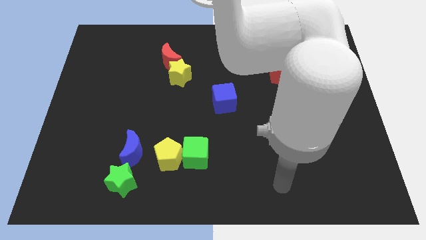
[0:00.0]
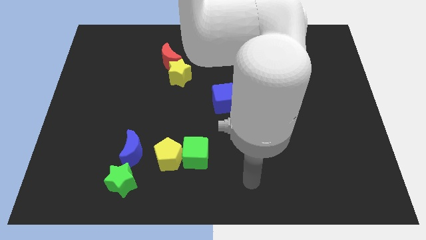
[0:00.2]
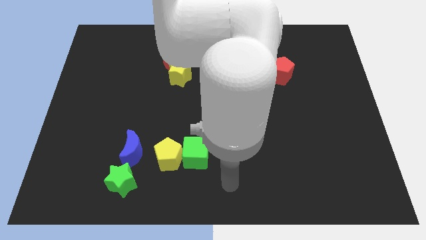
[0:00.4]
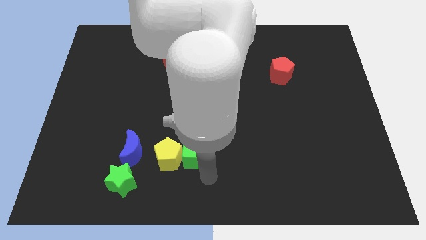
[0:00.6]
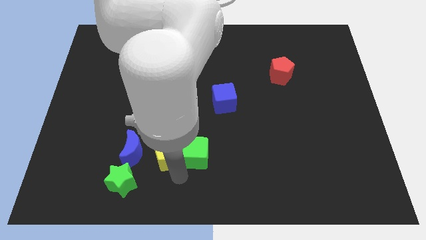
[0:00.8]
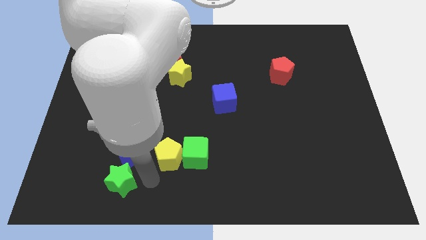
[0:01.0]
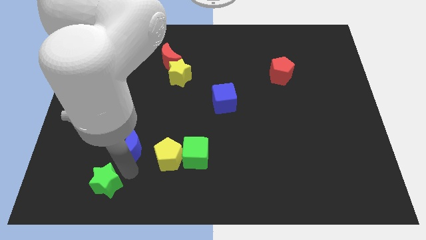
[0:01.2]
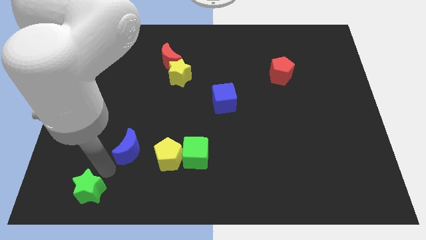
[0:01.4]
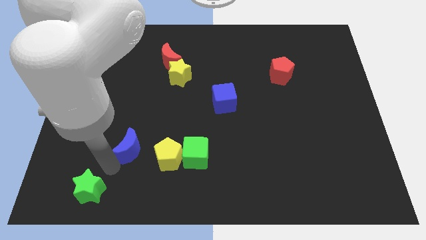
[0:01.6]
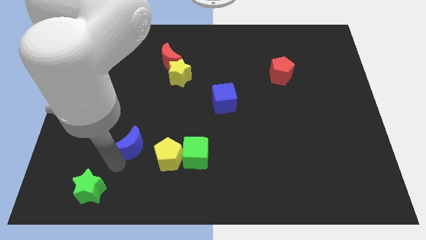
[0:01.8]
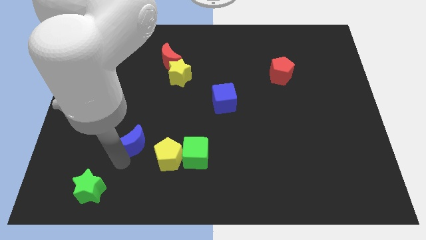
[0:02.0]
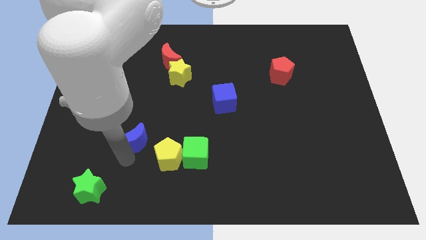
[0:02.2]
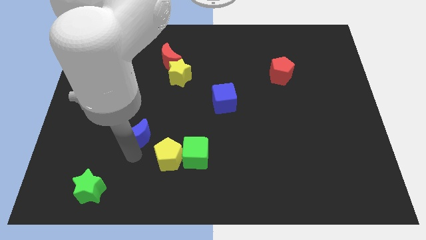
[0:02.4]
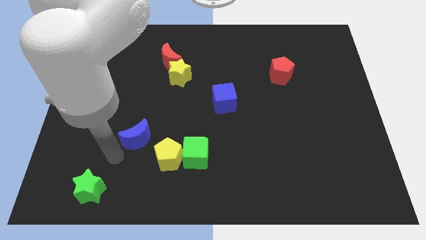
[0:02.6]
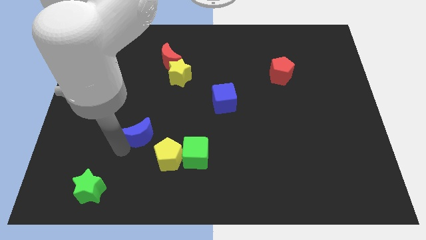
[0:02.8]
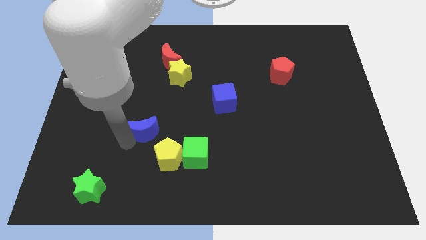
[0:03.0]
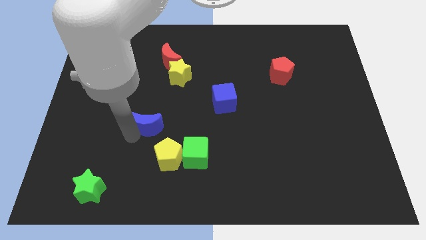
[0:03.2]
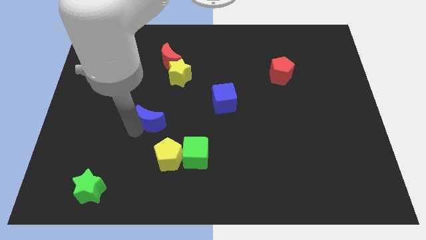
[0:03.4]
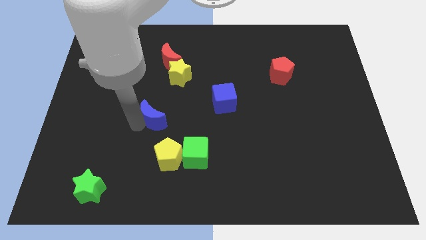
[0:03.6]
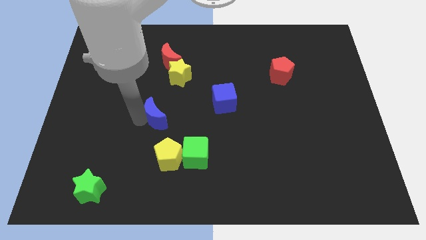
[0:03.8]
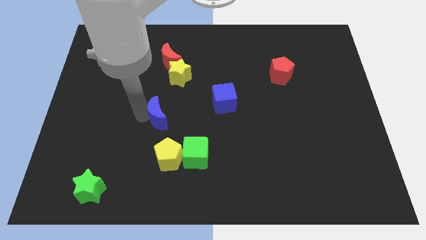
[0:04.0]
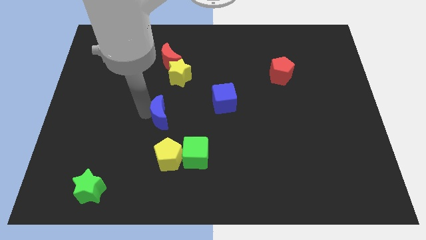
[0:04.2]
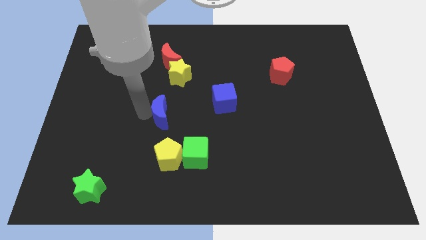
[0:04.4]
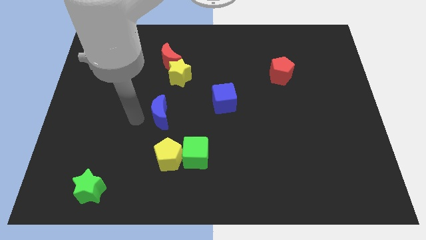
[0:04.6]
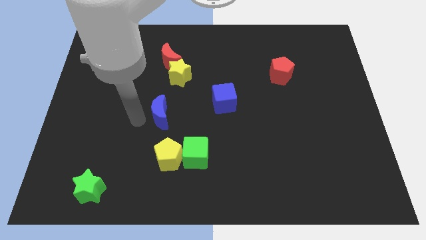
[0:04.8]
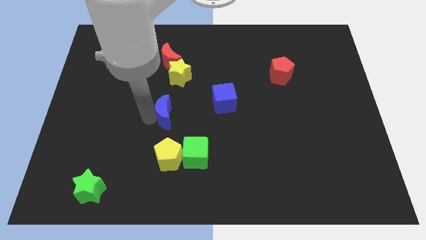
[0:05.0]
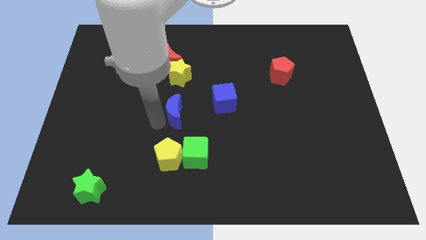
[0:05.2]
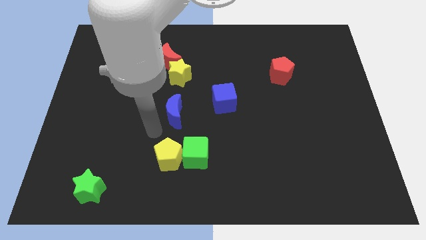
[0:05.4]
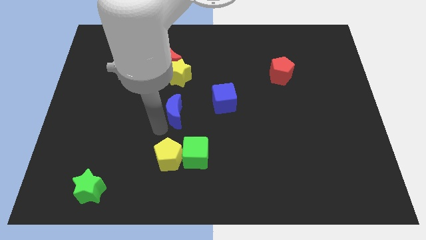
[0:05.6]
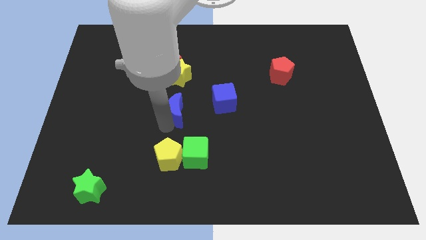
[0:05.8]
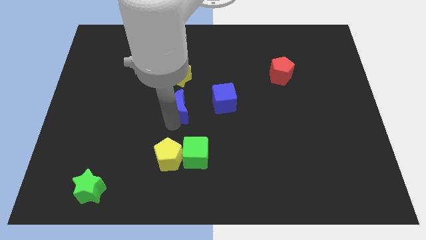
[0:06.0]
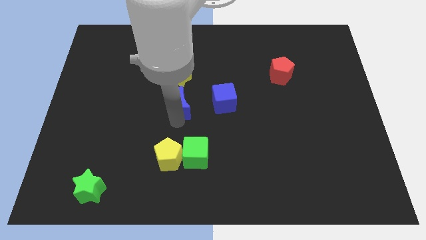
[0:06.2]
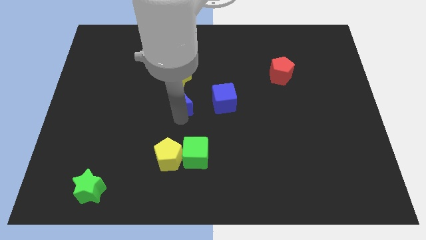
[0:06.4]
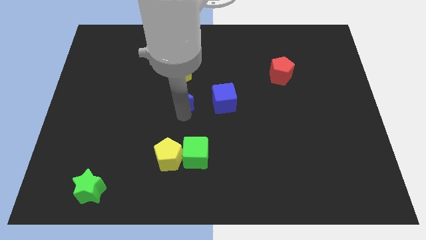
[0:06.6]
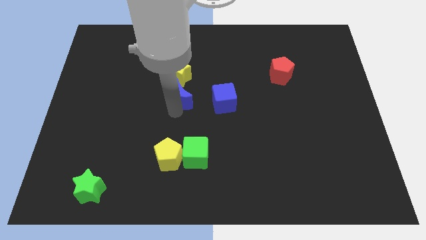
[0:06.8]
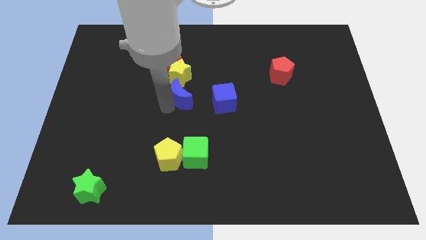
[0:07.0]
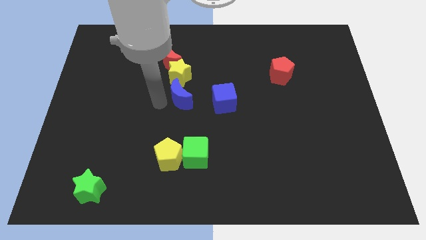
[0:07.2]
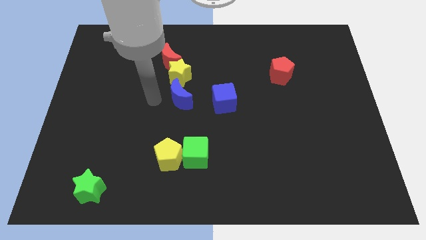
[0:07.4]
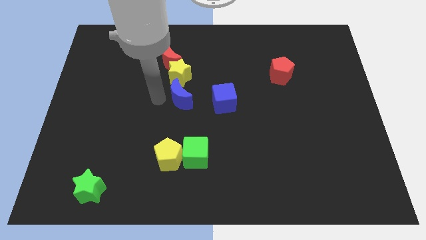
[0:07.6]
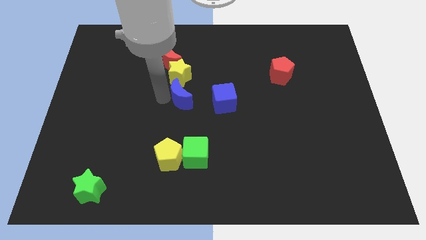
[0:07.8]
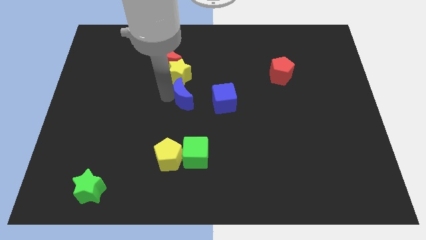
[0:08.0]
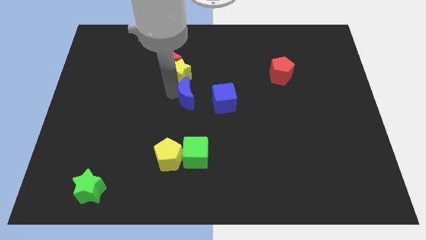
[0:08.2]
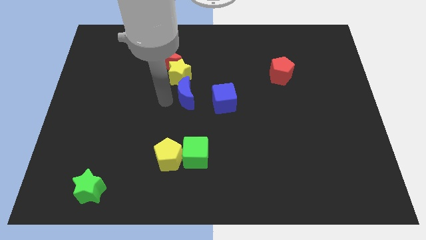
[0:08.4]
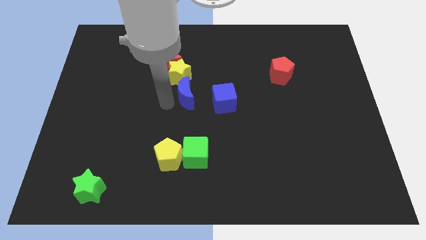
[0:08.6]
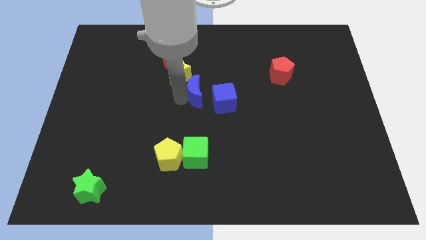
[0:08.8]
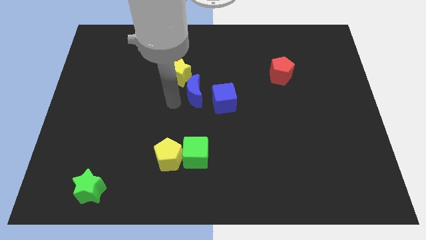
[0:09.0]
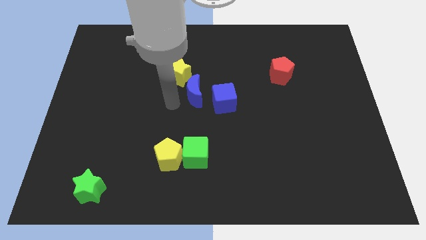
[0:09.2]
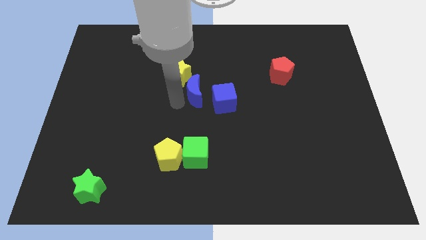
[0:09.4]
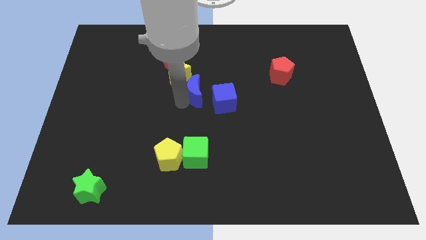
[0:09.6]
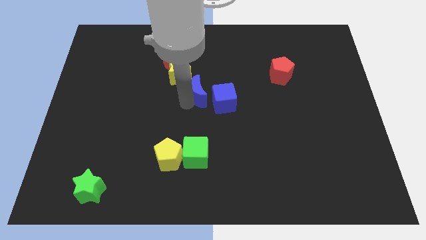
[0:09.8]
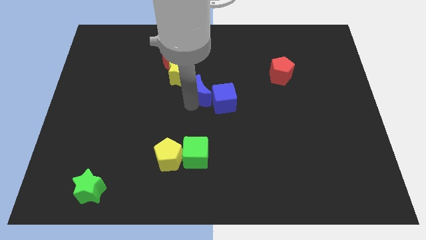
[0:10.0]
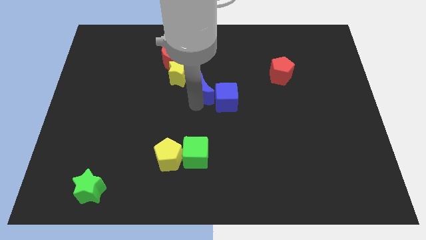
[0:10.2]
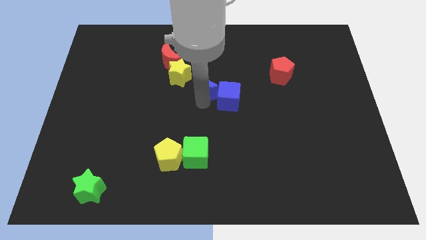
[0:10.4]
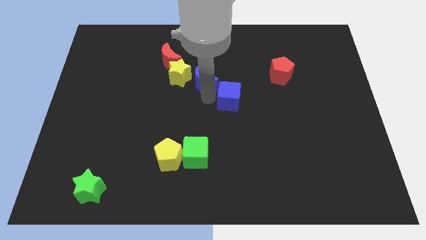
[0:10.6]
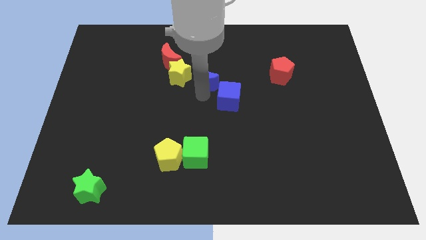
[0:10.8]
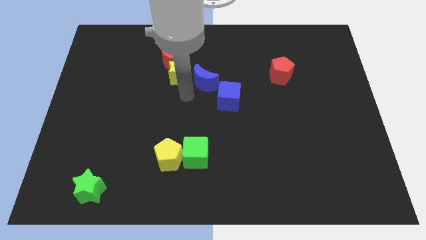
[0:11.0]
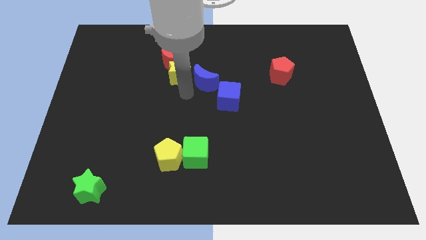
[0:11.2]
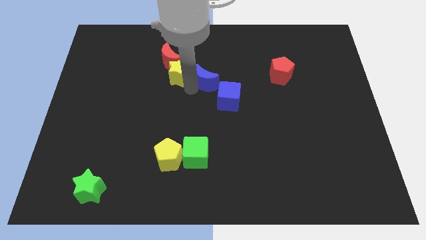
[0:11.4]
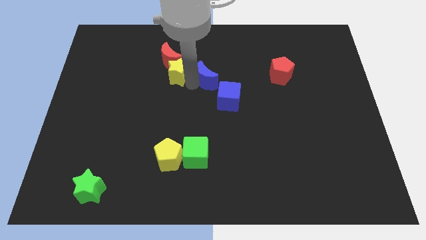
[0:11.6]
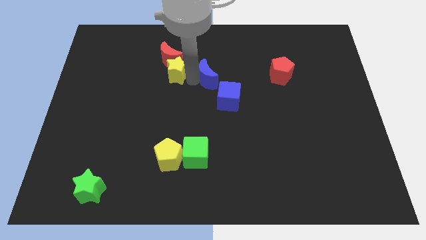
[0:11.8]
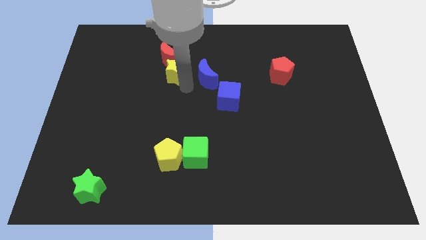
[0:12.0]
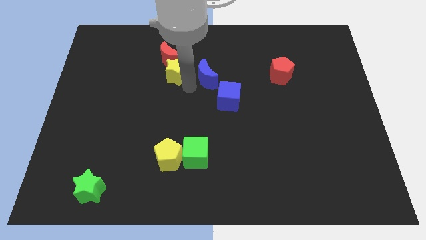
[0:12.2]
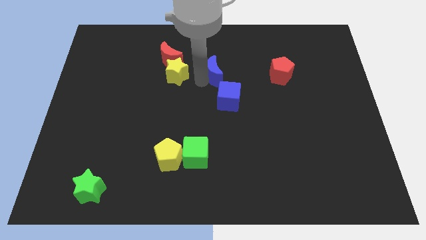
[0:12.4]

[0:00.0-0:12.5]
move the blue moon above the blue cube

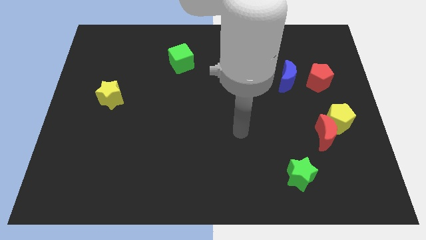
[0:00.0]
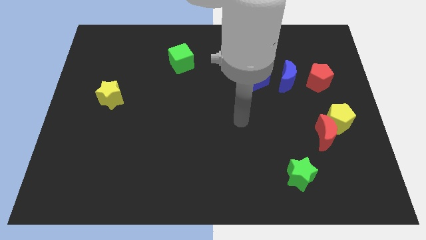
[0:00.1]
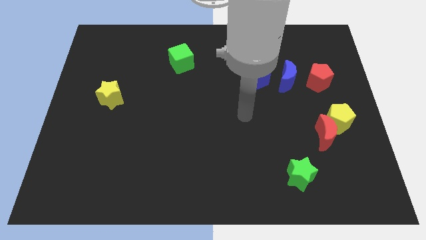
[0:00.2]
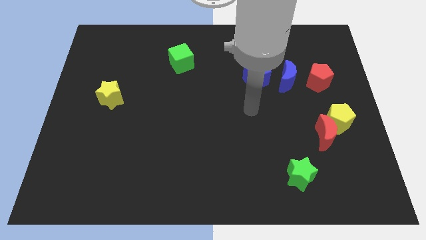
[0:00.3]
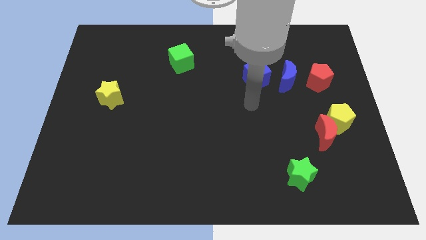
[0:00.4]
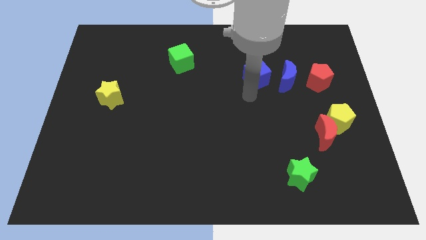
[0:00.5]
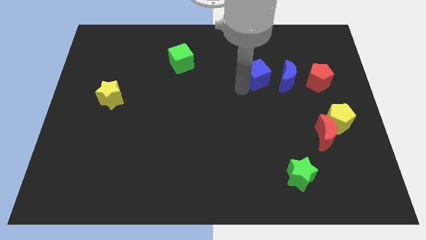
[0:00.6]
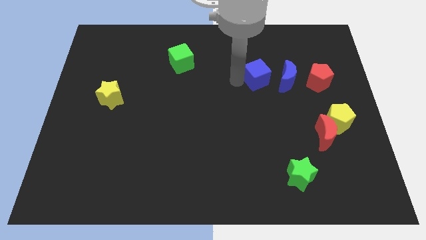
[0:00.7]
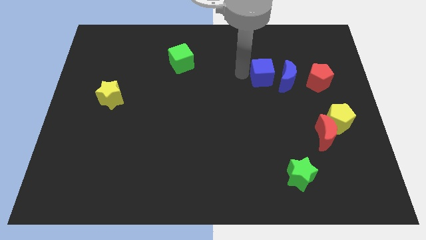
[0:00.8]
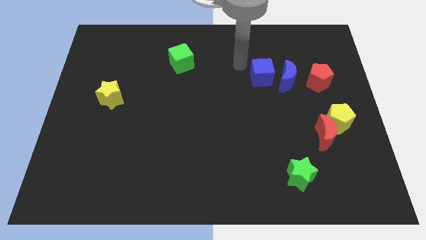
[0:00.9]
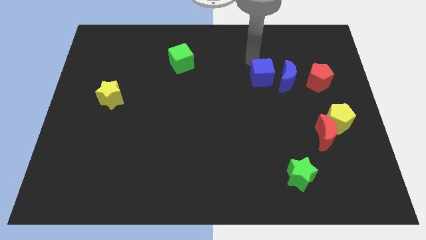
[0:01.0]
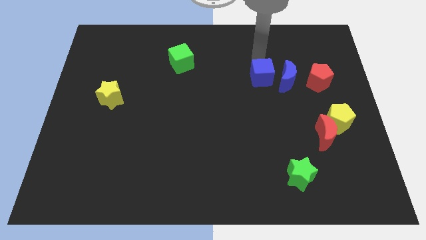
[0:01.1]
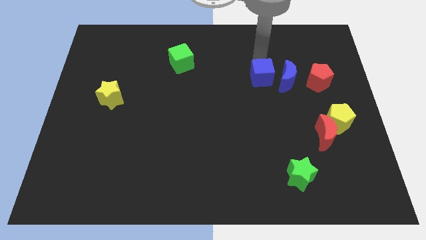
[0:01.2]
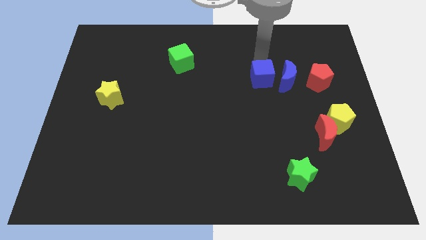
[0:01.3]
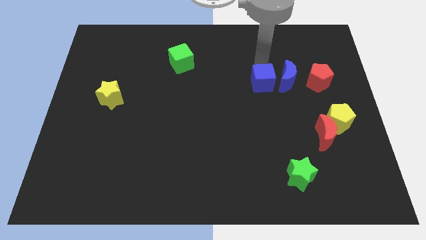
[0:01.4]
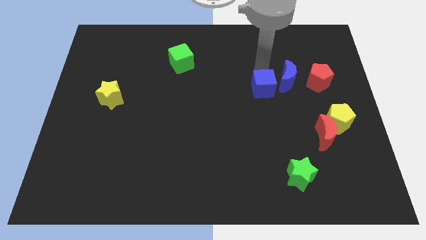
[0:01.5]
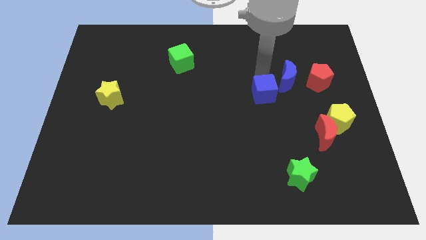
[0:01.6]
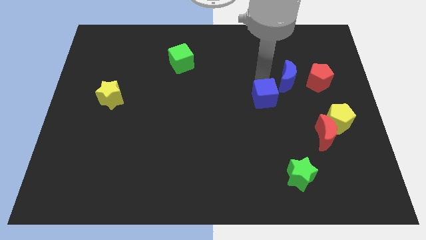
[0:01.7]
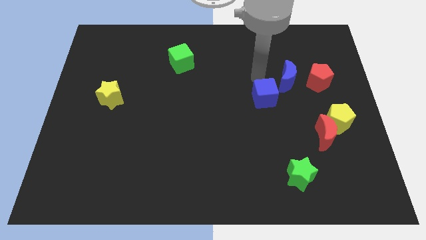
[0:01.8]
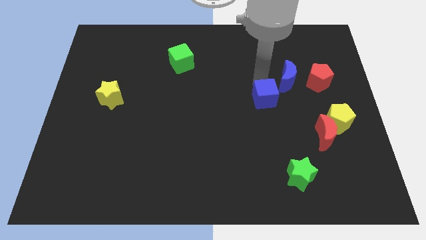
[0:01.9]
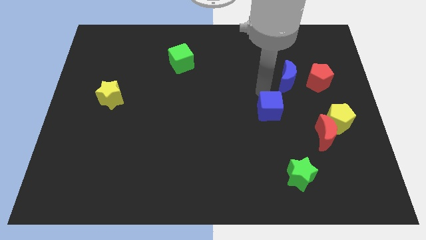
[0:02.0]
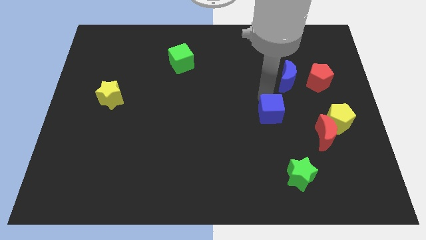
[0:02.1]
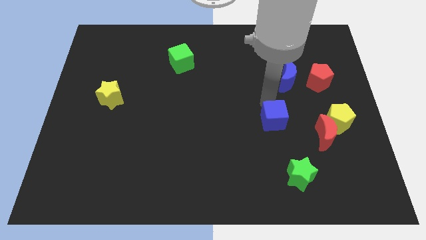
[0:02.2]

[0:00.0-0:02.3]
slide the blue cube just left of the red moon
